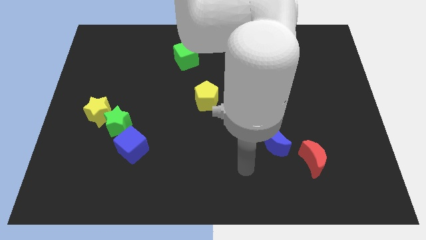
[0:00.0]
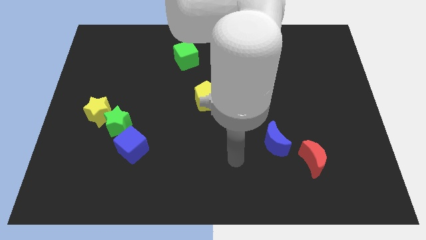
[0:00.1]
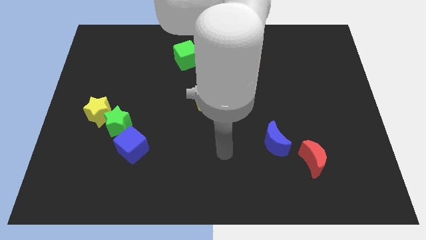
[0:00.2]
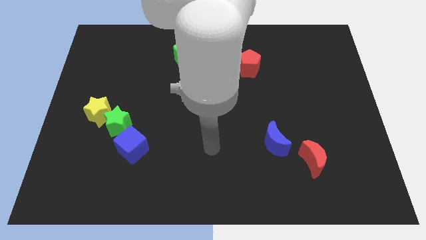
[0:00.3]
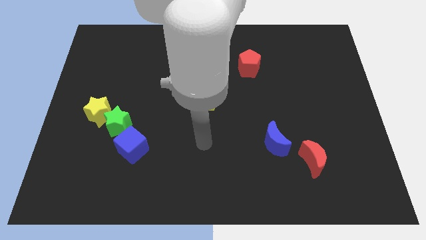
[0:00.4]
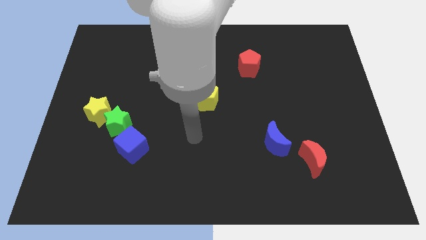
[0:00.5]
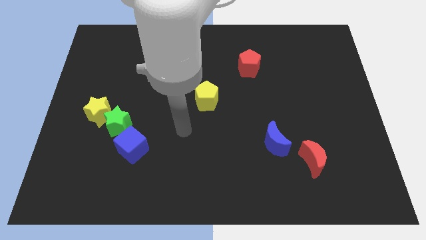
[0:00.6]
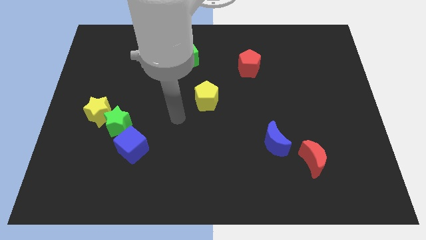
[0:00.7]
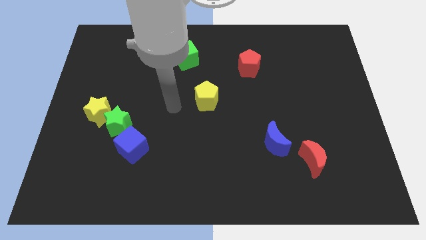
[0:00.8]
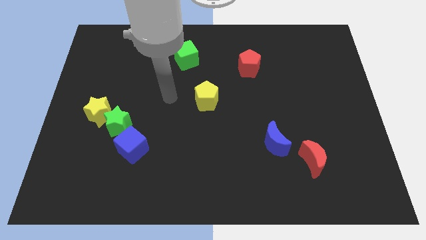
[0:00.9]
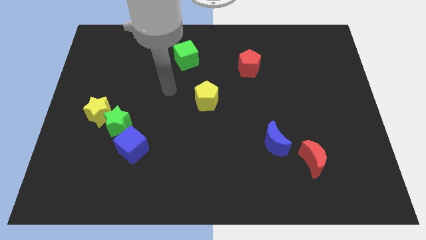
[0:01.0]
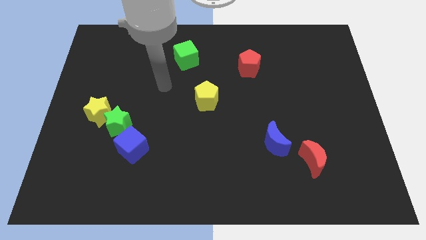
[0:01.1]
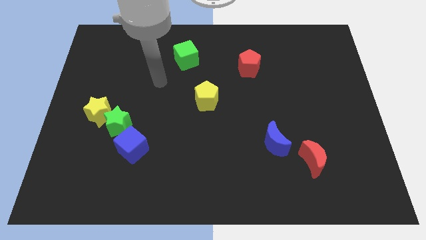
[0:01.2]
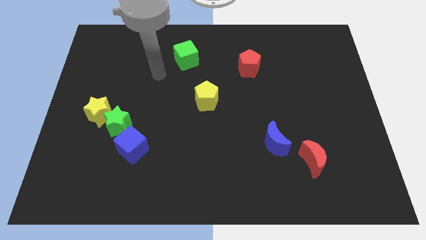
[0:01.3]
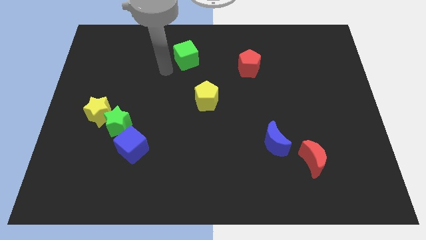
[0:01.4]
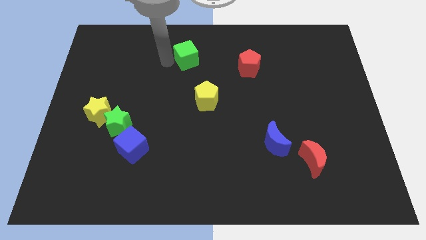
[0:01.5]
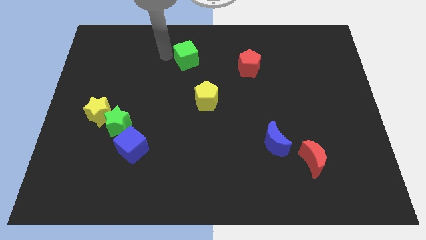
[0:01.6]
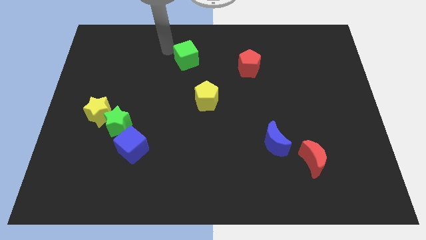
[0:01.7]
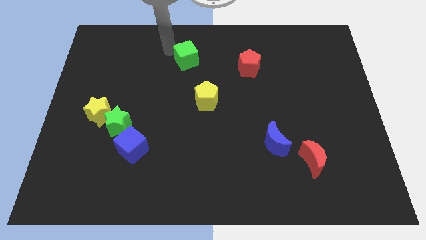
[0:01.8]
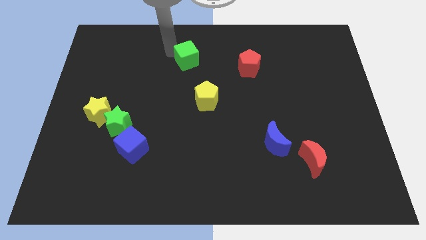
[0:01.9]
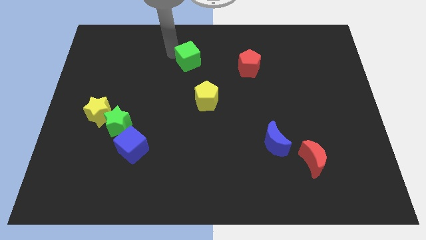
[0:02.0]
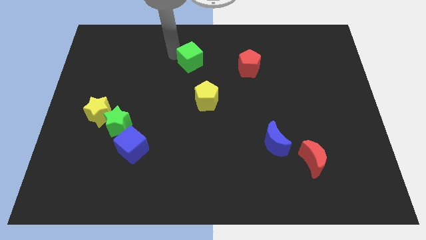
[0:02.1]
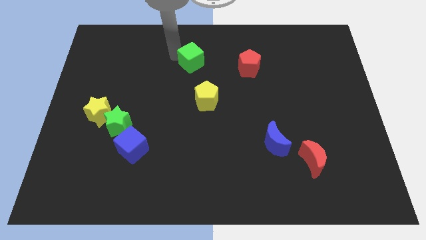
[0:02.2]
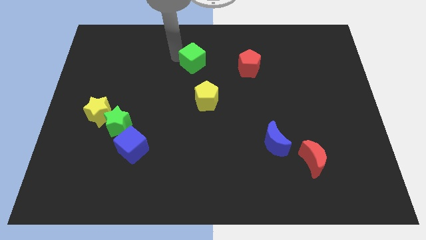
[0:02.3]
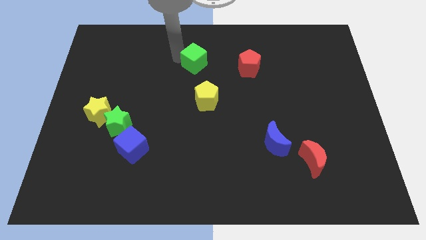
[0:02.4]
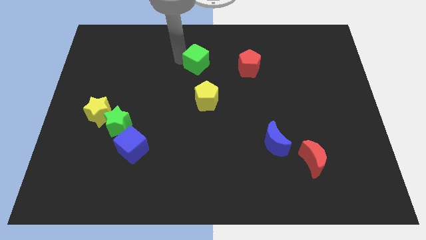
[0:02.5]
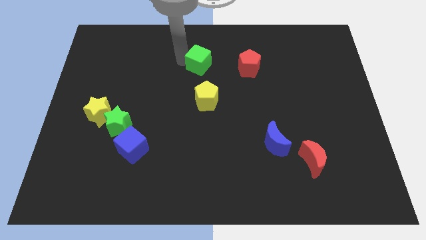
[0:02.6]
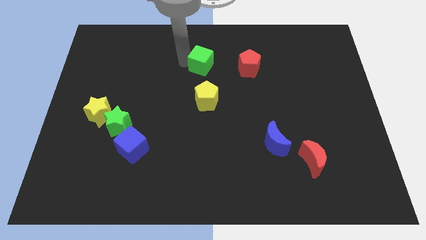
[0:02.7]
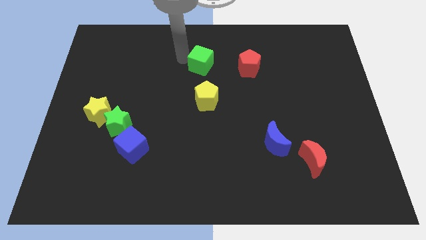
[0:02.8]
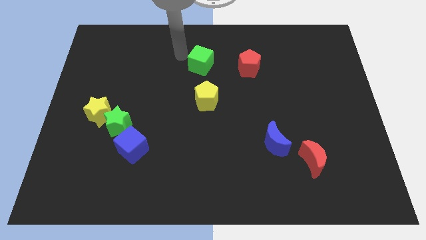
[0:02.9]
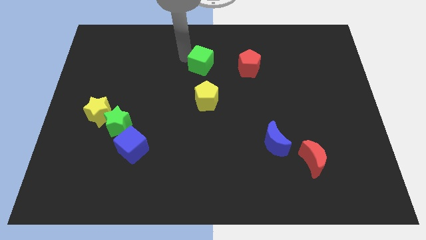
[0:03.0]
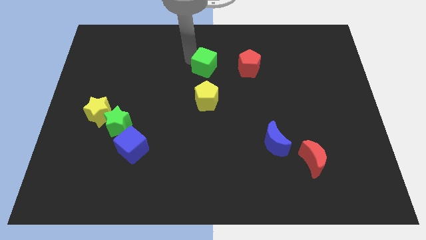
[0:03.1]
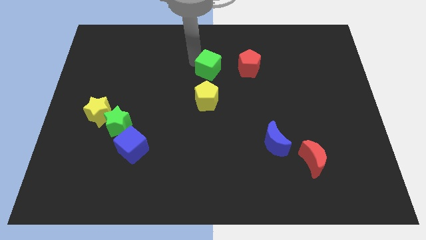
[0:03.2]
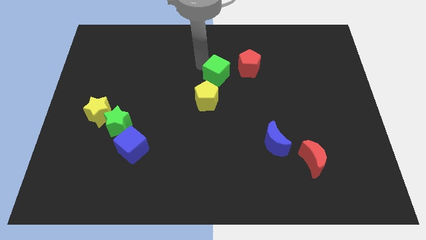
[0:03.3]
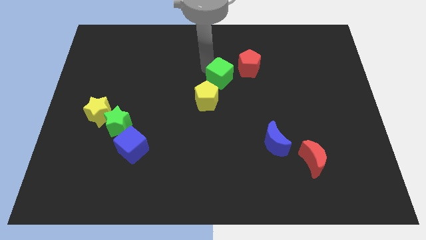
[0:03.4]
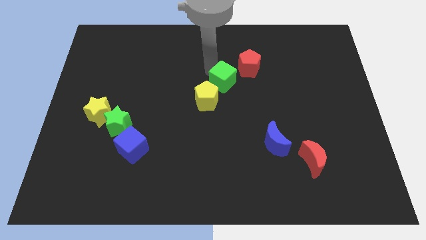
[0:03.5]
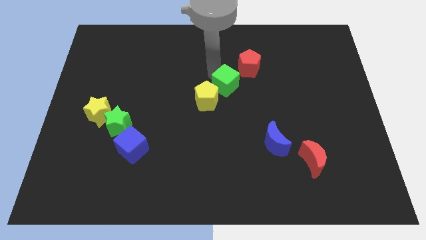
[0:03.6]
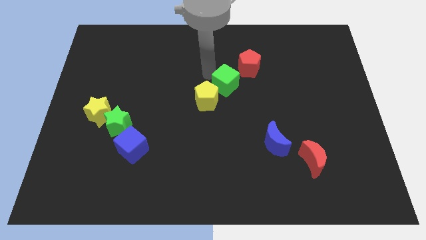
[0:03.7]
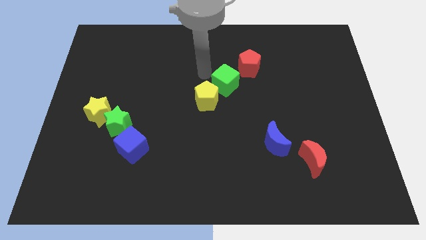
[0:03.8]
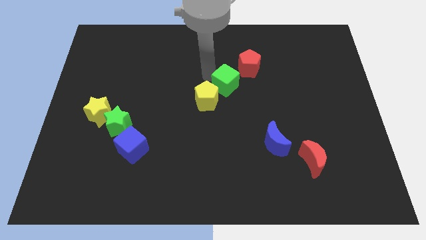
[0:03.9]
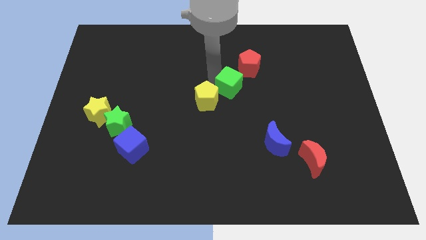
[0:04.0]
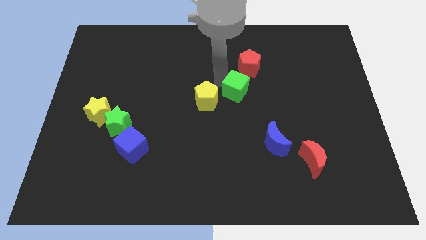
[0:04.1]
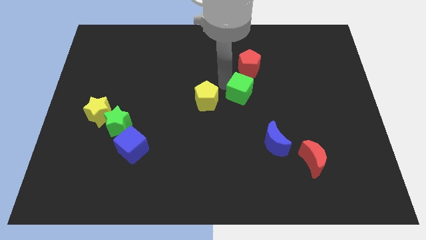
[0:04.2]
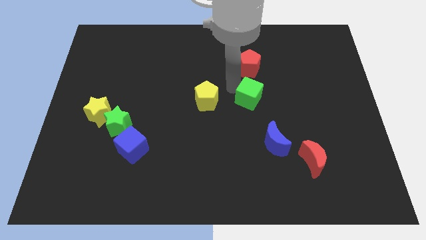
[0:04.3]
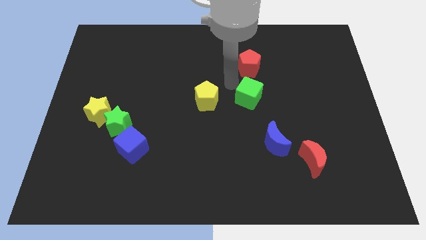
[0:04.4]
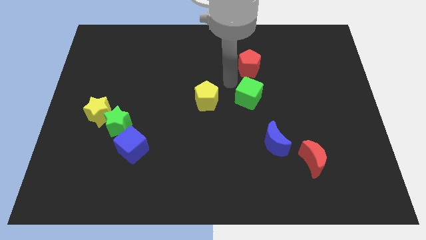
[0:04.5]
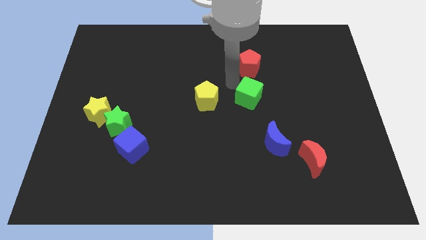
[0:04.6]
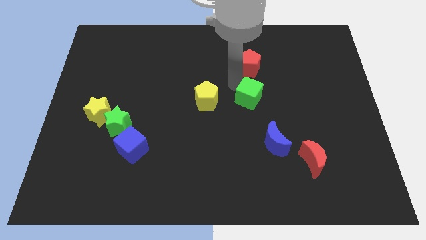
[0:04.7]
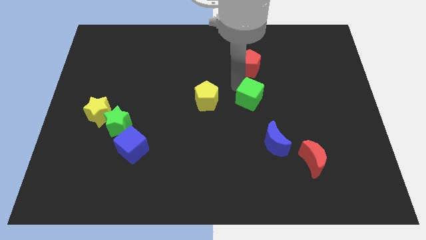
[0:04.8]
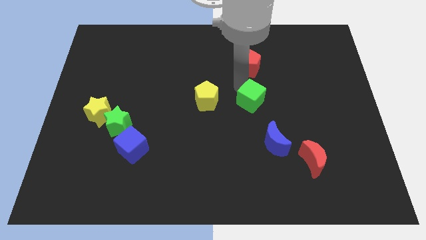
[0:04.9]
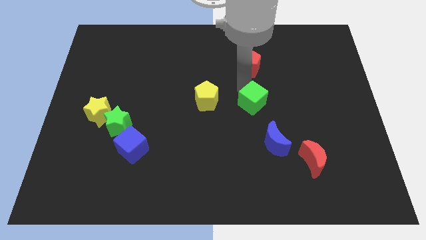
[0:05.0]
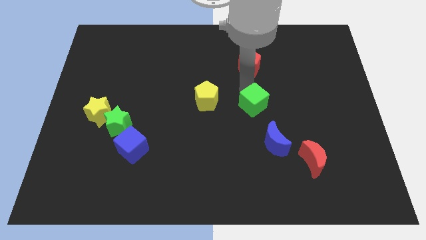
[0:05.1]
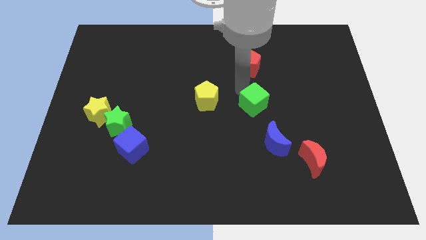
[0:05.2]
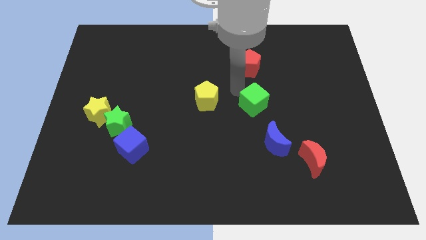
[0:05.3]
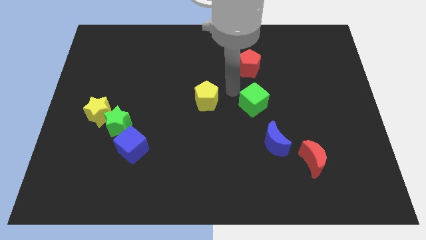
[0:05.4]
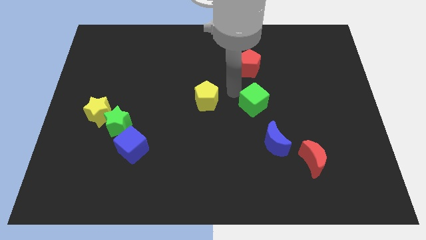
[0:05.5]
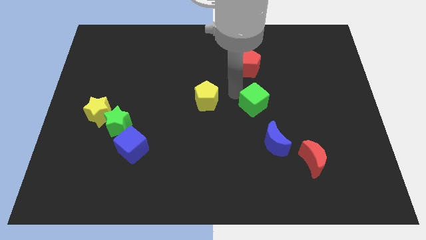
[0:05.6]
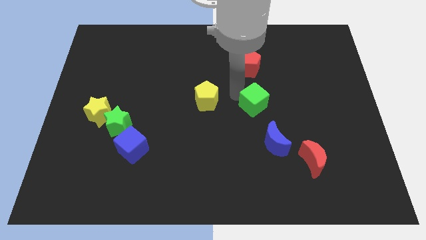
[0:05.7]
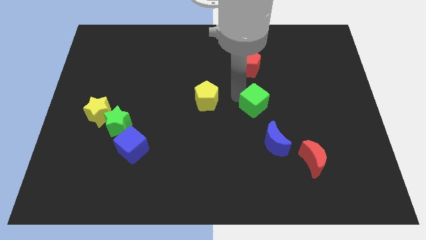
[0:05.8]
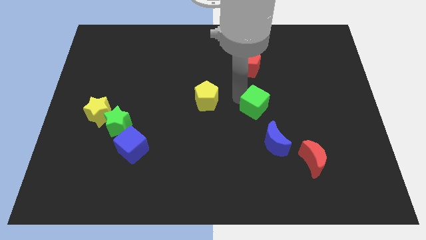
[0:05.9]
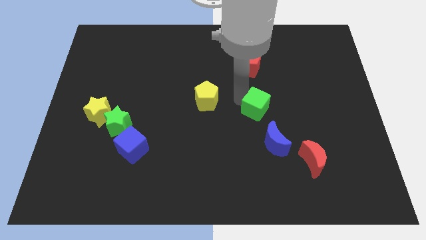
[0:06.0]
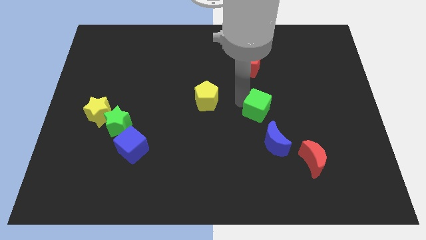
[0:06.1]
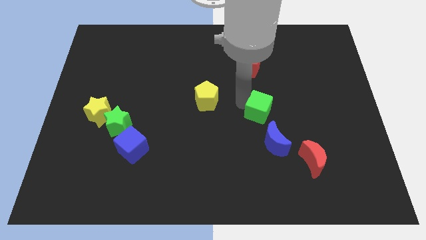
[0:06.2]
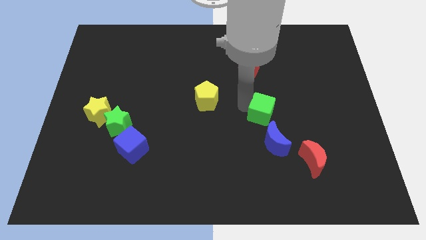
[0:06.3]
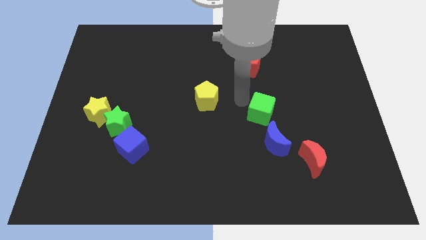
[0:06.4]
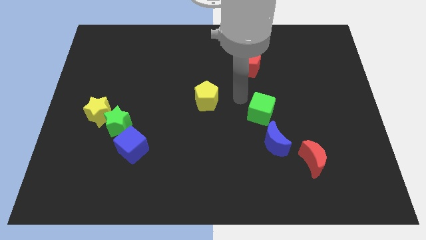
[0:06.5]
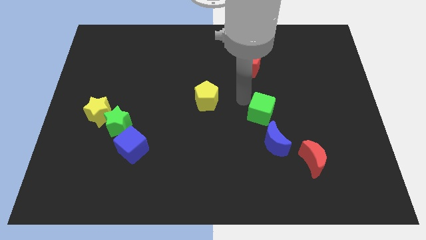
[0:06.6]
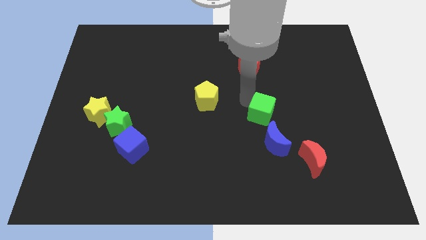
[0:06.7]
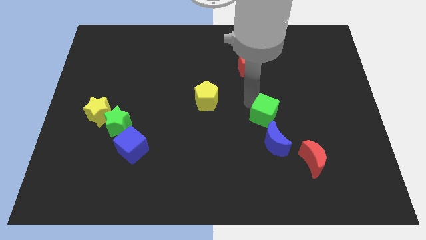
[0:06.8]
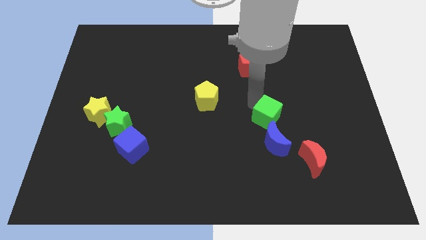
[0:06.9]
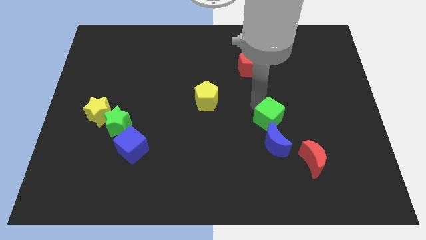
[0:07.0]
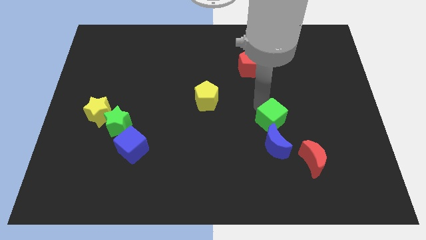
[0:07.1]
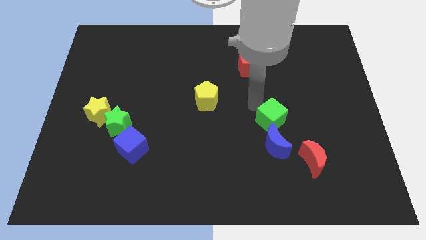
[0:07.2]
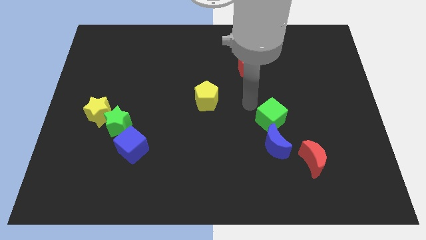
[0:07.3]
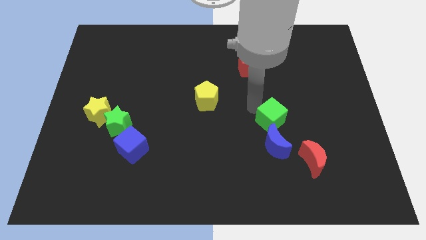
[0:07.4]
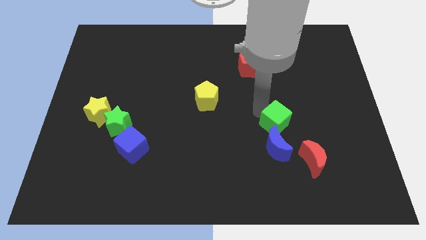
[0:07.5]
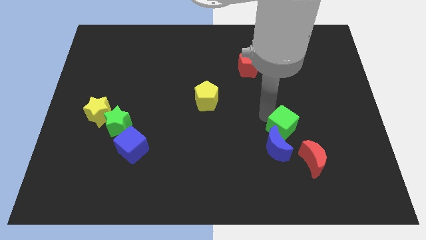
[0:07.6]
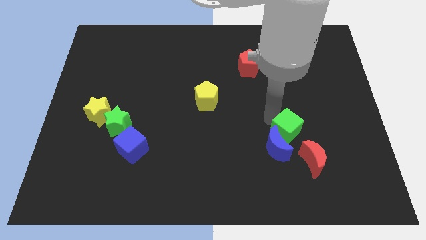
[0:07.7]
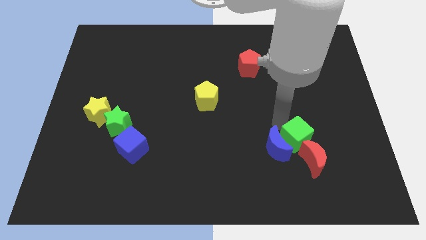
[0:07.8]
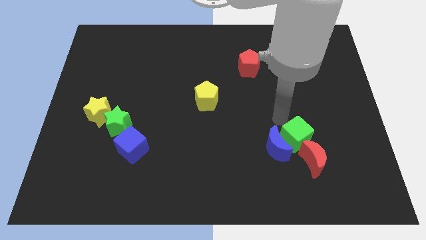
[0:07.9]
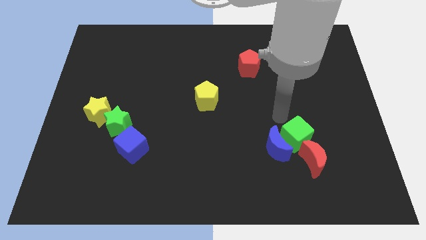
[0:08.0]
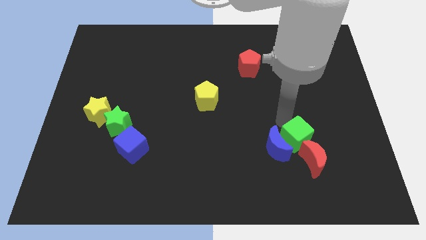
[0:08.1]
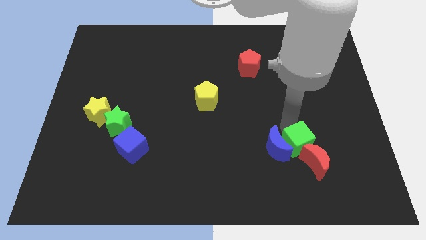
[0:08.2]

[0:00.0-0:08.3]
push the green cube close to the red moon
